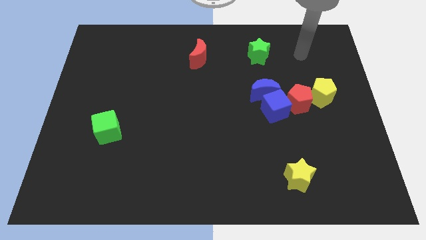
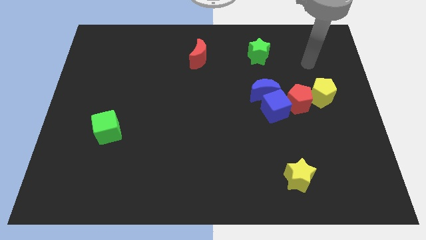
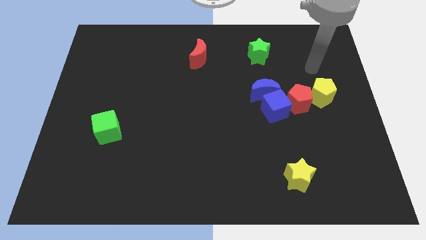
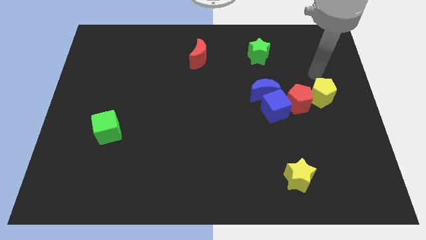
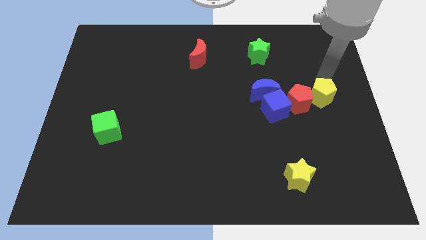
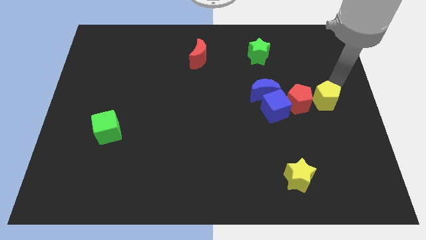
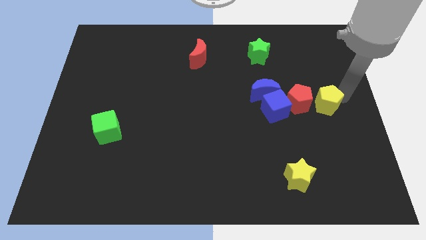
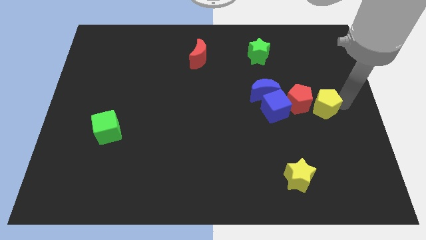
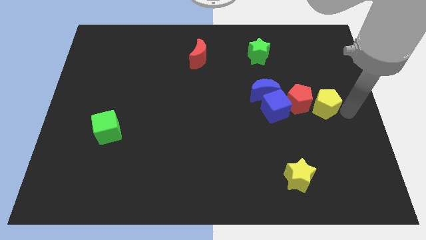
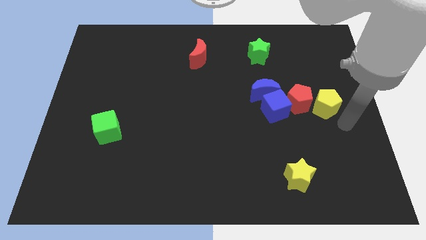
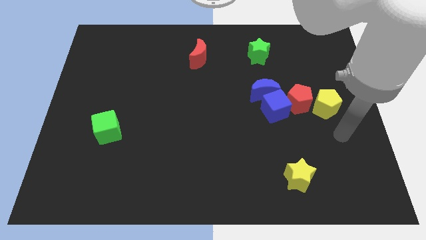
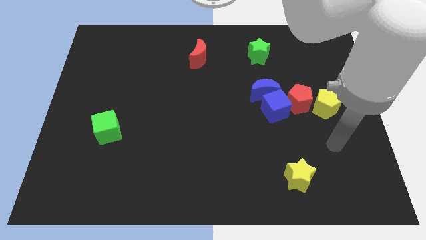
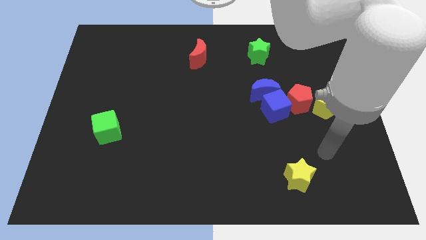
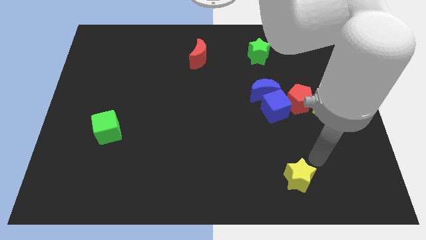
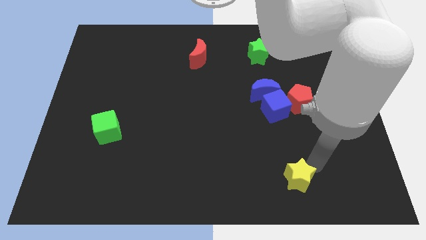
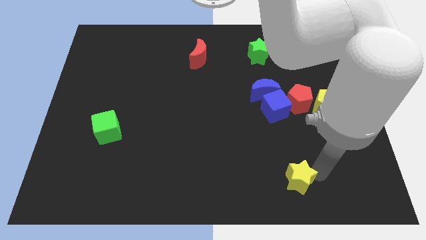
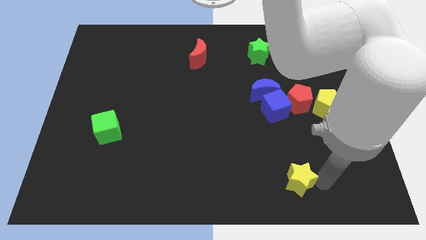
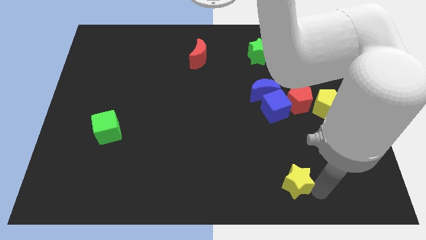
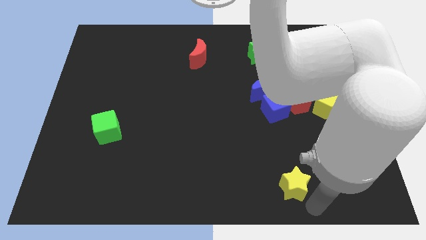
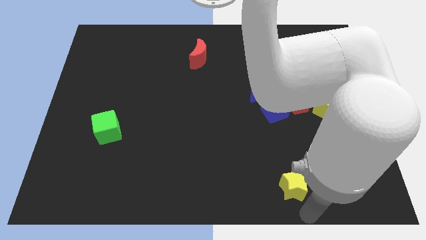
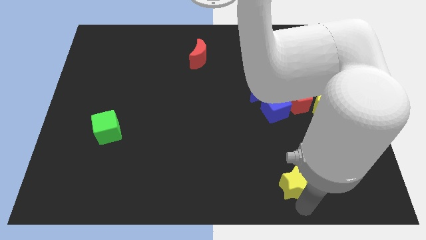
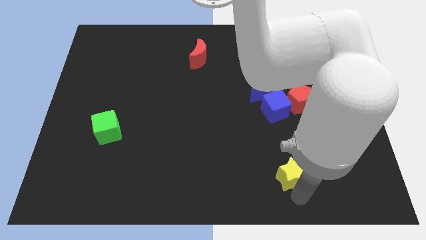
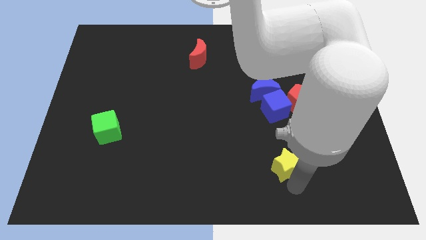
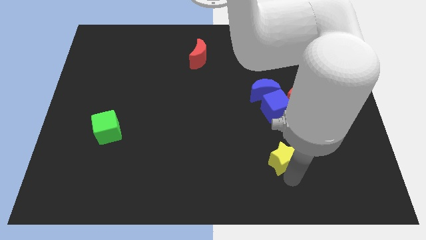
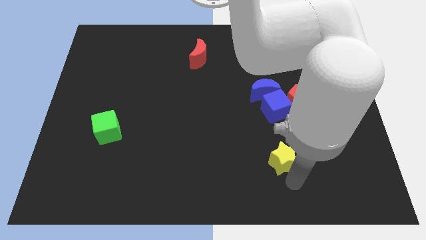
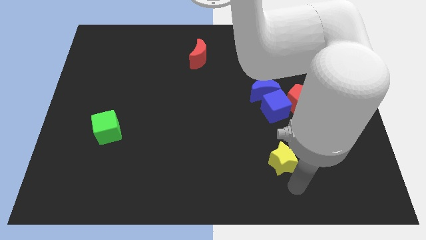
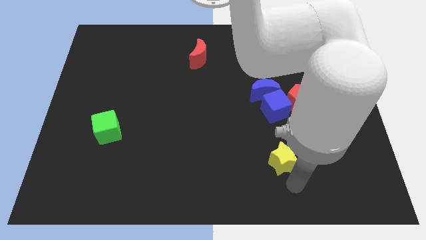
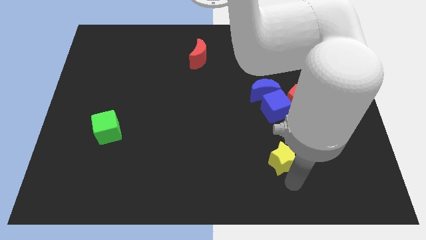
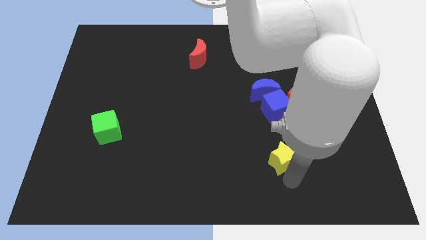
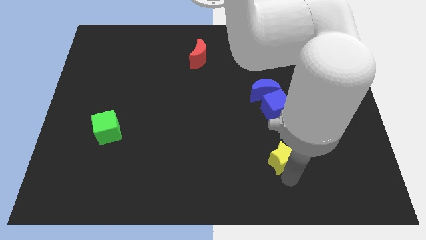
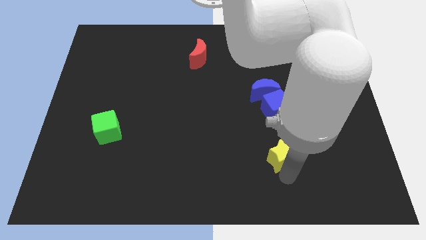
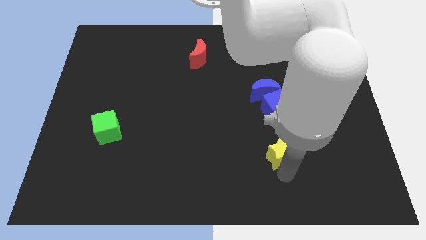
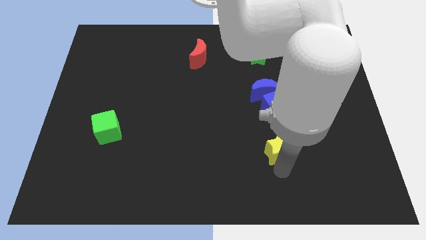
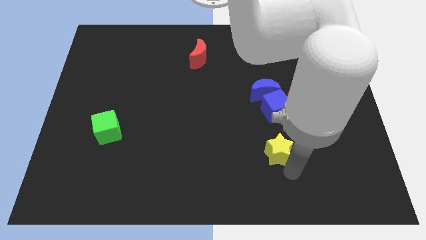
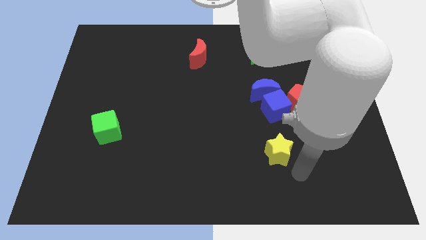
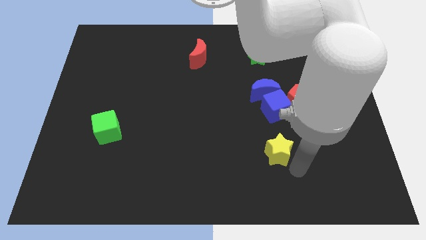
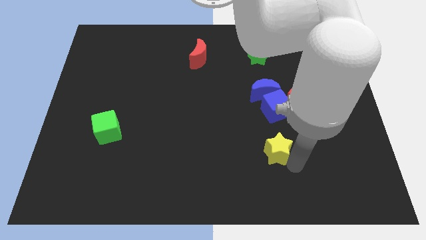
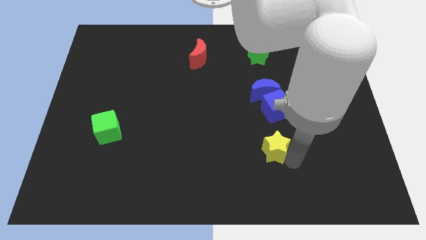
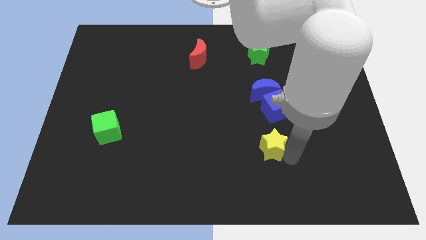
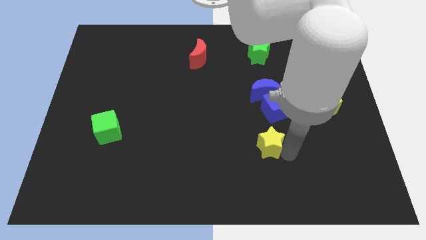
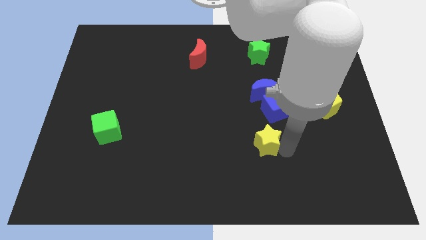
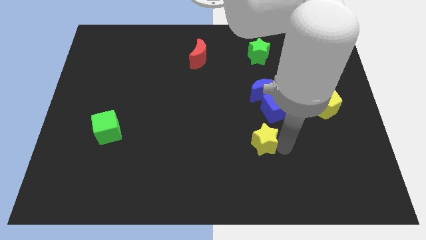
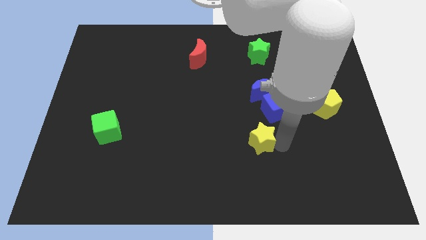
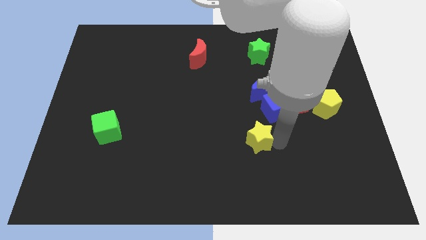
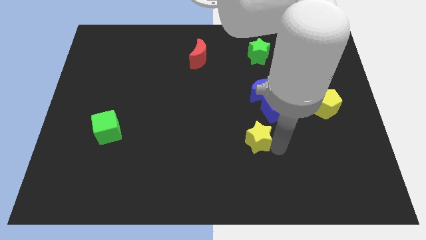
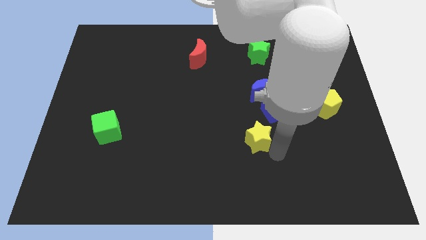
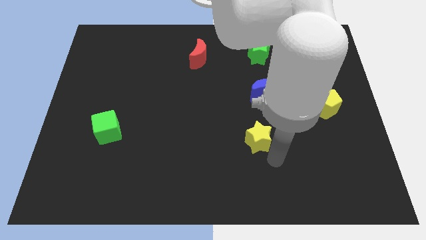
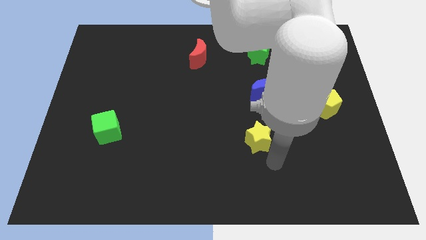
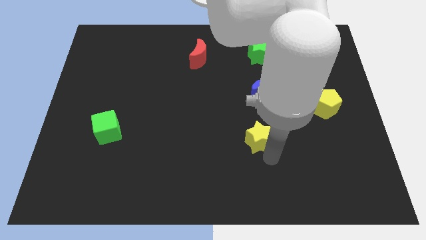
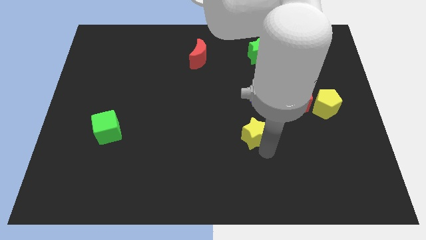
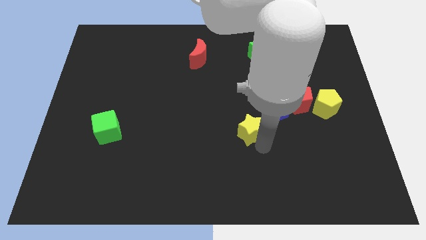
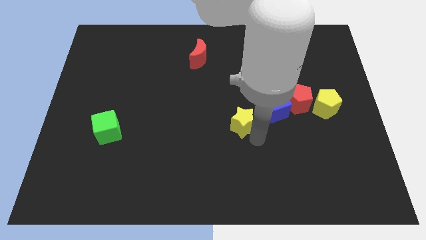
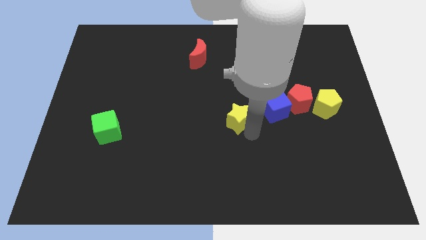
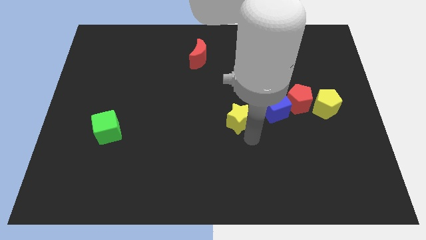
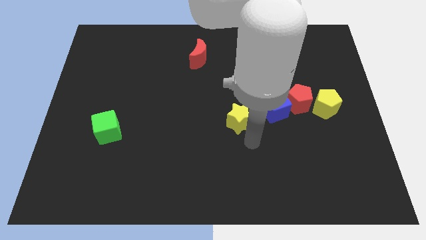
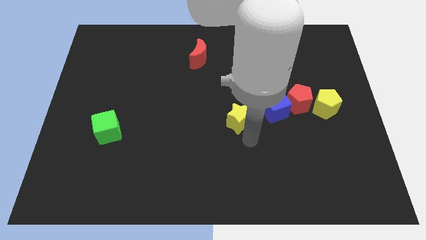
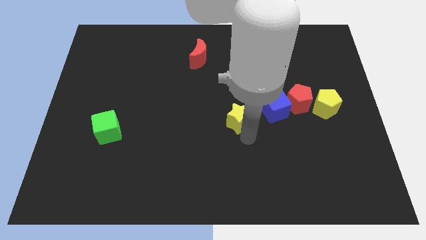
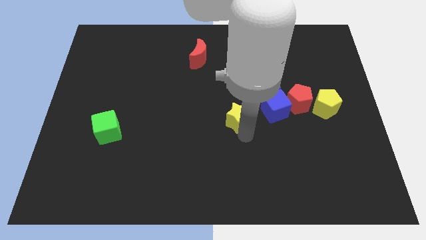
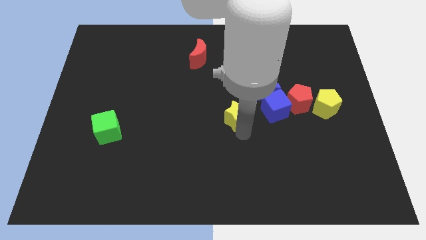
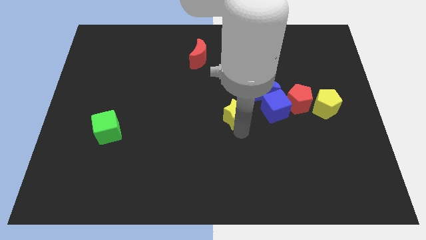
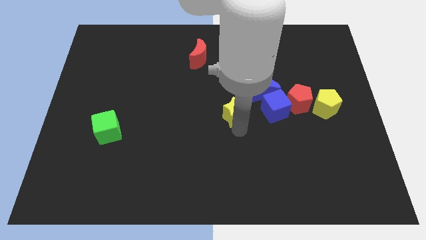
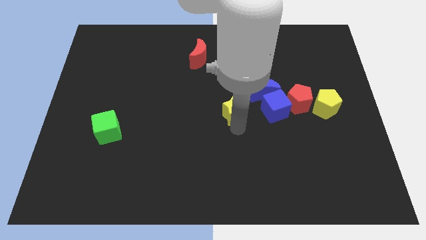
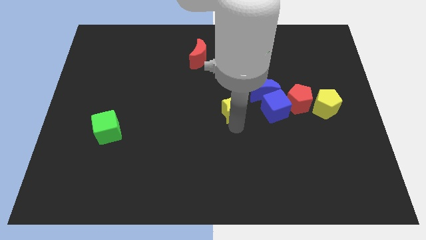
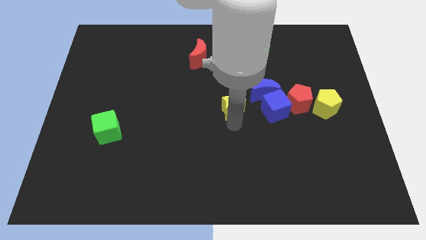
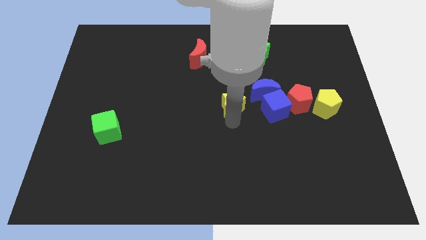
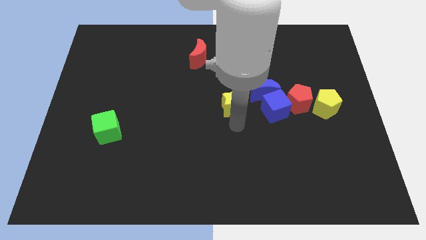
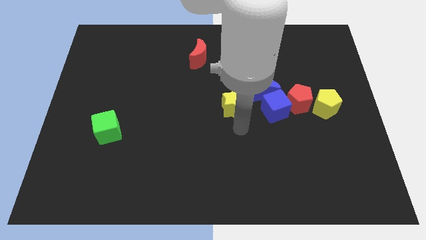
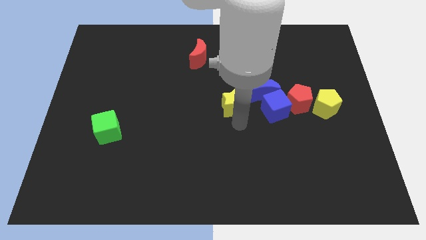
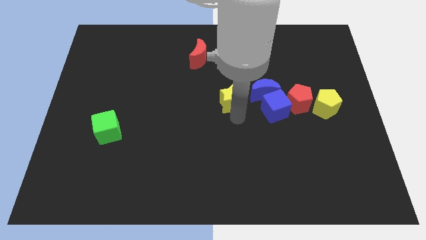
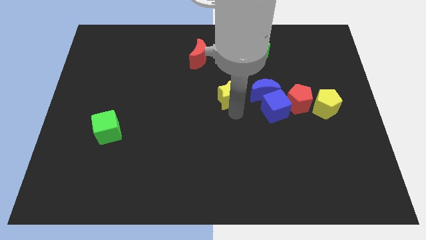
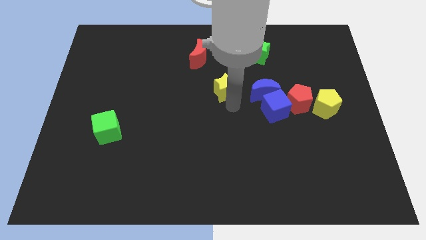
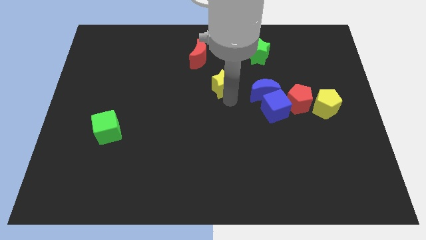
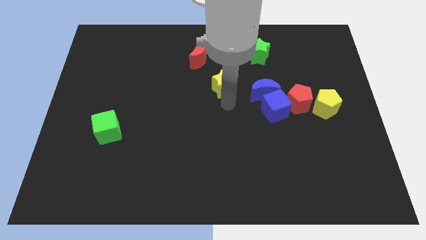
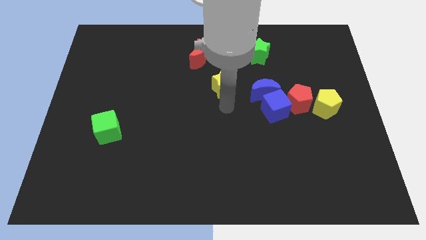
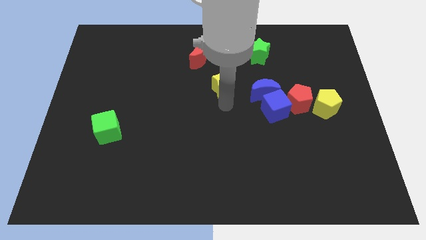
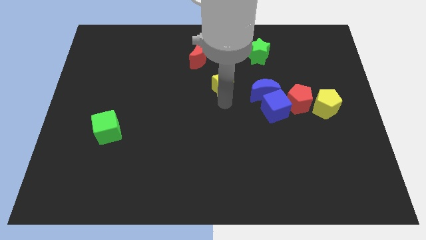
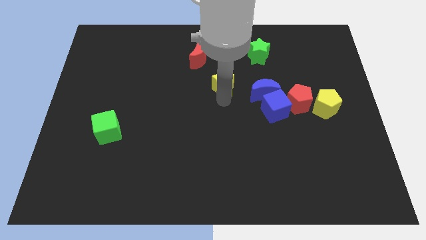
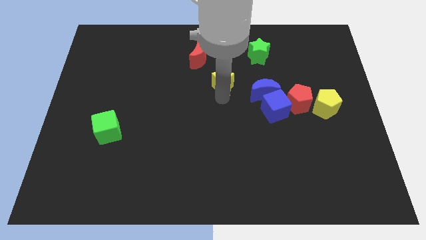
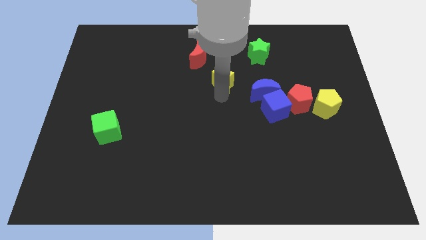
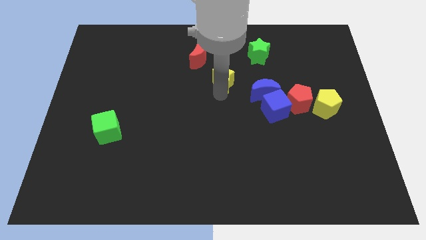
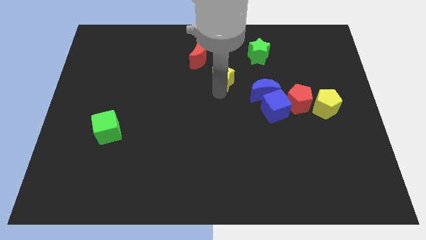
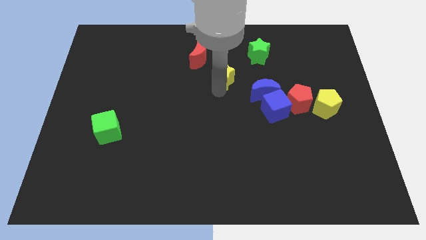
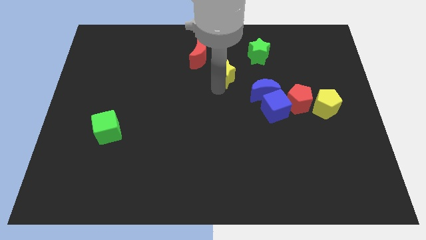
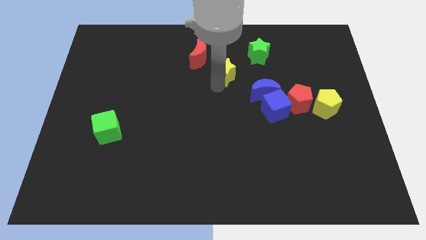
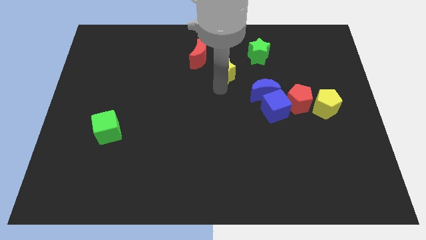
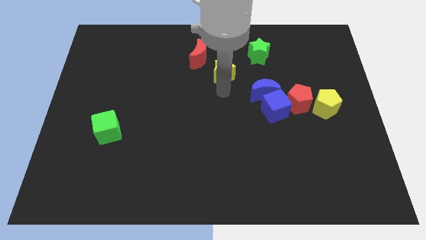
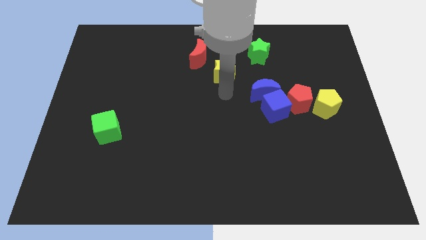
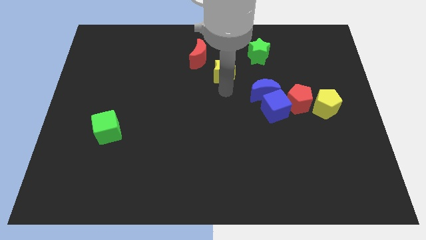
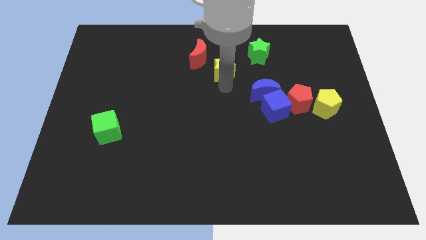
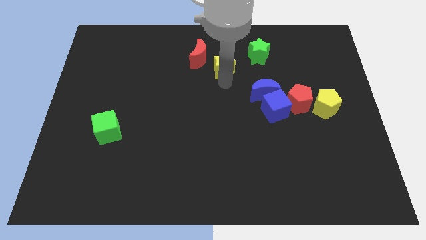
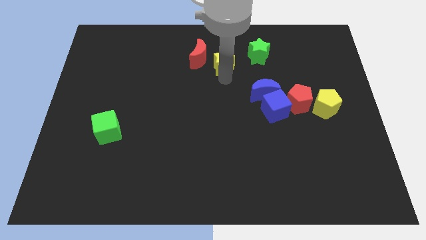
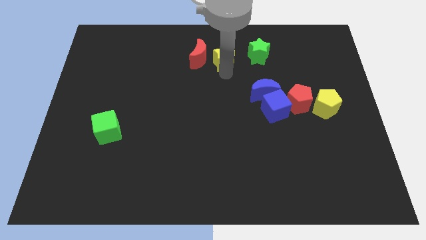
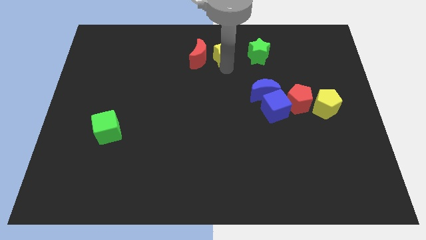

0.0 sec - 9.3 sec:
put the yellow star to the top
